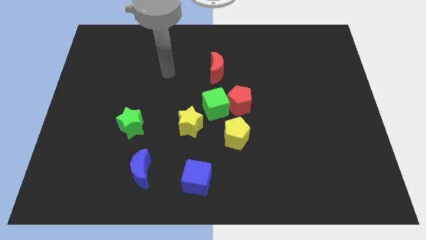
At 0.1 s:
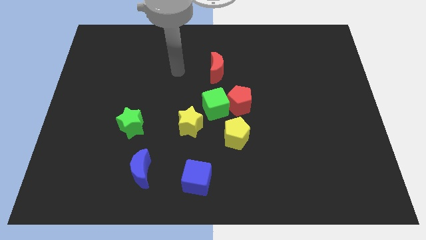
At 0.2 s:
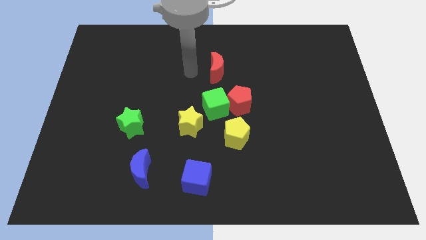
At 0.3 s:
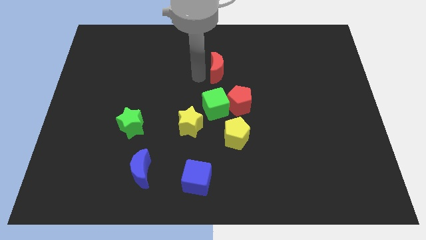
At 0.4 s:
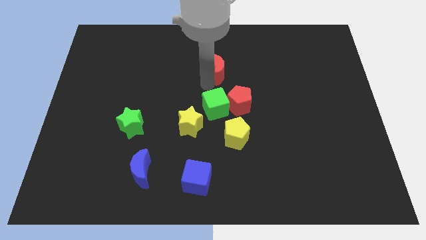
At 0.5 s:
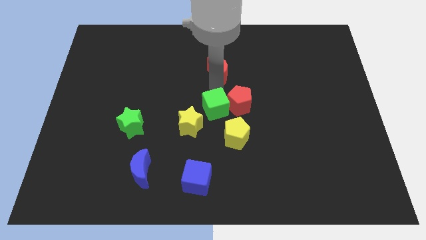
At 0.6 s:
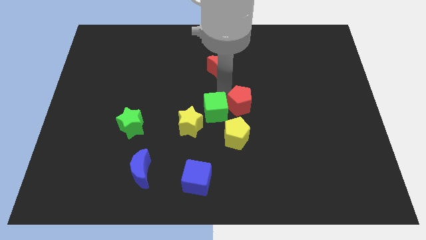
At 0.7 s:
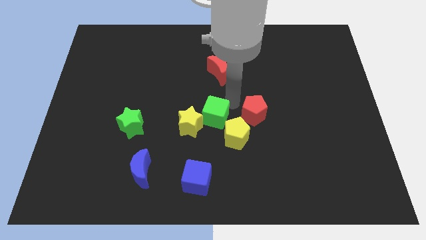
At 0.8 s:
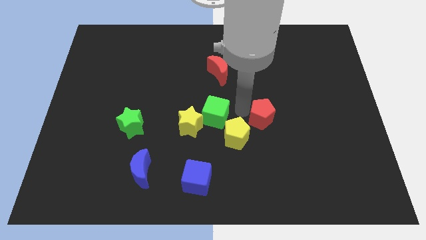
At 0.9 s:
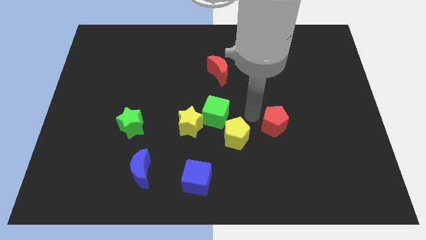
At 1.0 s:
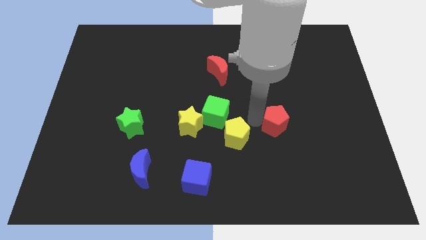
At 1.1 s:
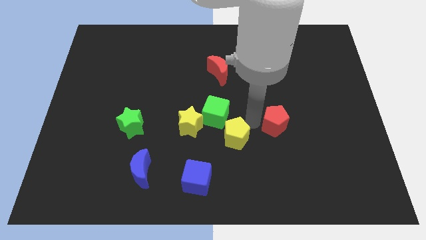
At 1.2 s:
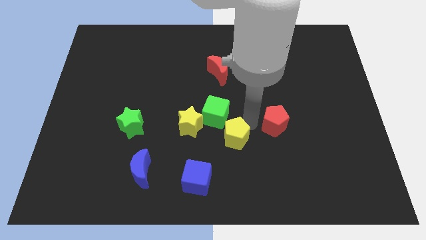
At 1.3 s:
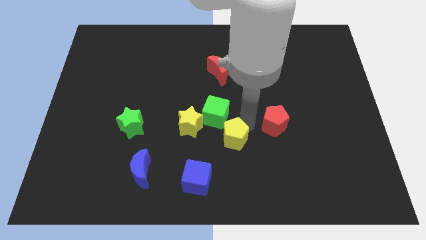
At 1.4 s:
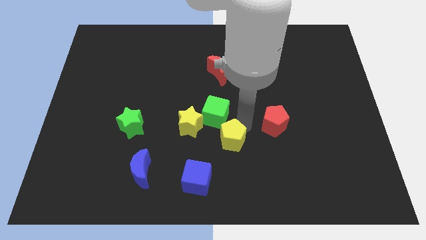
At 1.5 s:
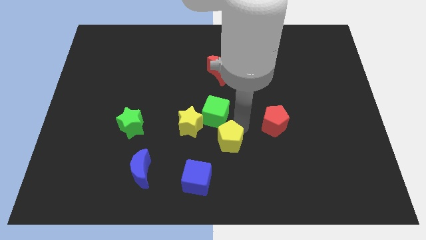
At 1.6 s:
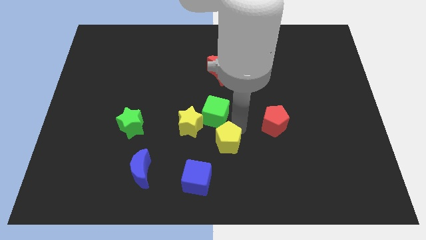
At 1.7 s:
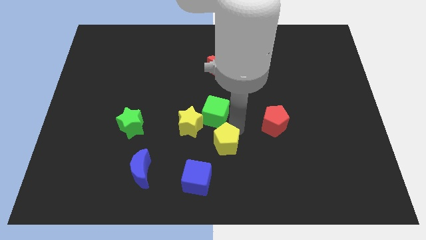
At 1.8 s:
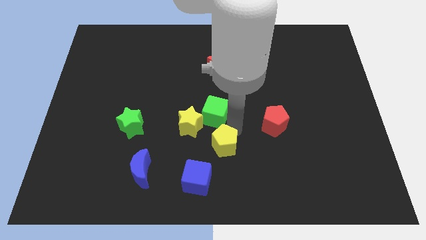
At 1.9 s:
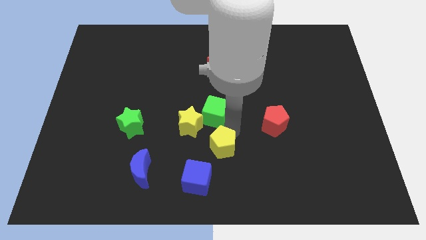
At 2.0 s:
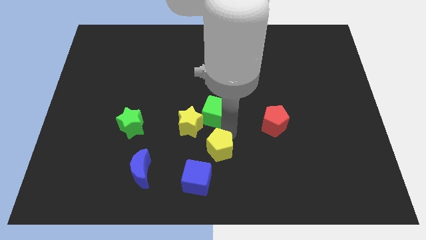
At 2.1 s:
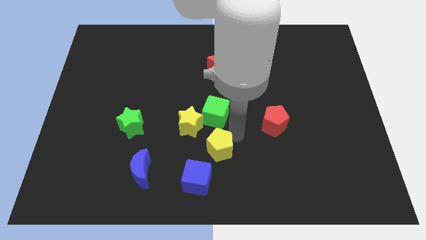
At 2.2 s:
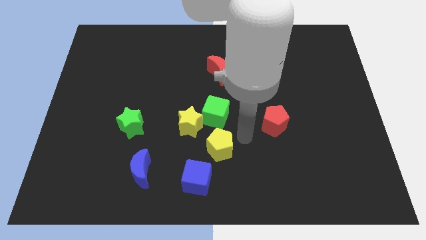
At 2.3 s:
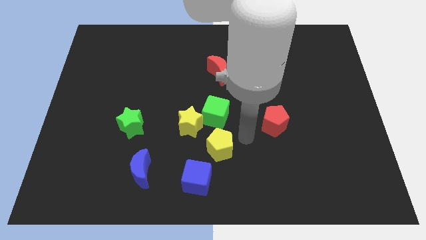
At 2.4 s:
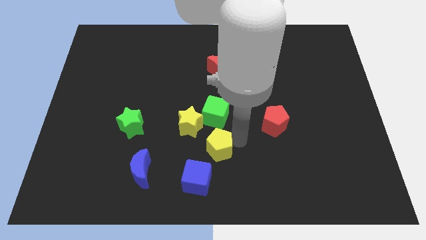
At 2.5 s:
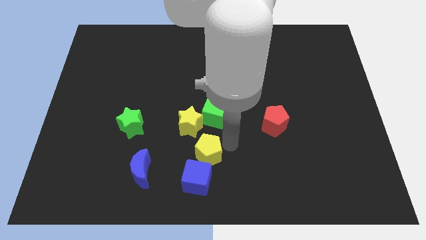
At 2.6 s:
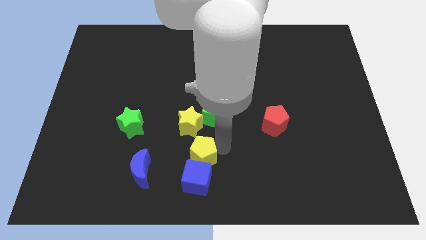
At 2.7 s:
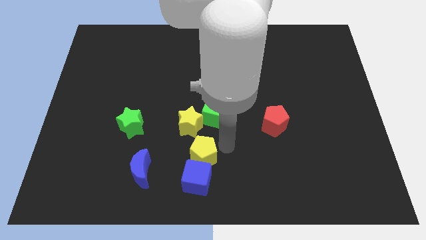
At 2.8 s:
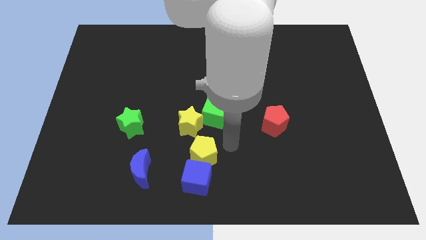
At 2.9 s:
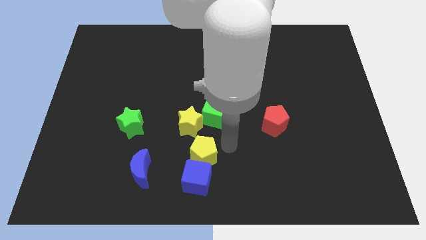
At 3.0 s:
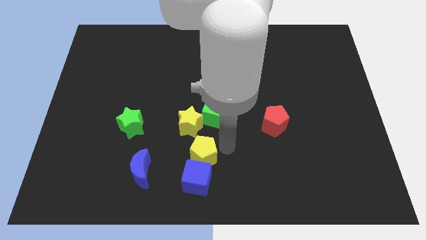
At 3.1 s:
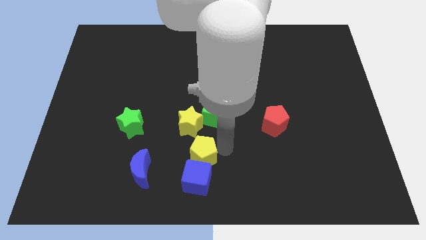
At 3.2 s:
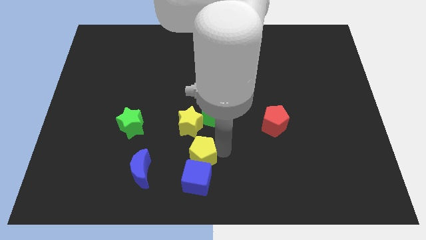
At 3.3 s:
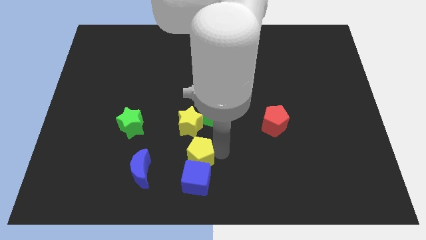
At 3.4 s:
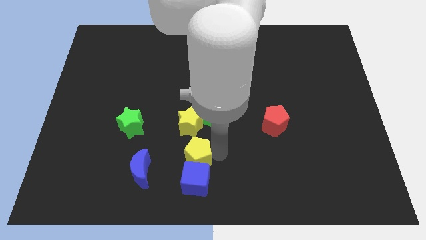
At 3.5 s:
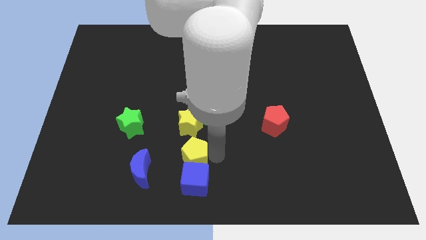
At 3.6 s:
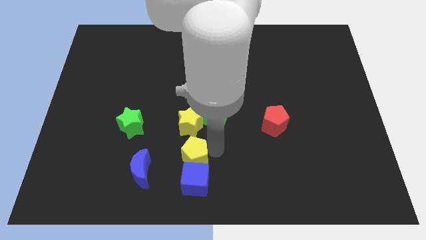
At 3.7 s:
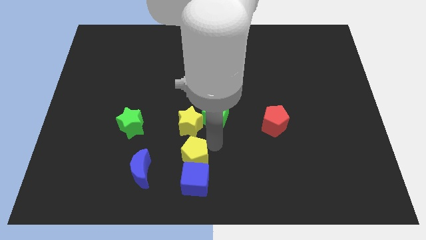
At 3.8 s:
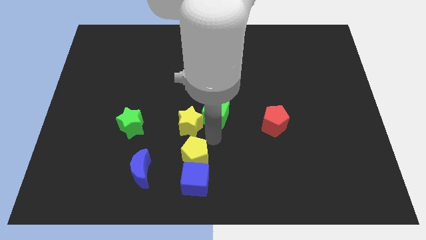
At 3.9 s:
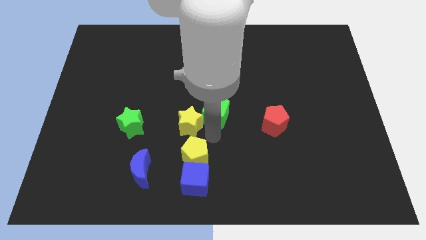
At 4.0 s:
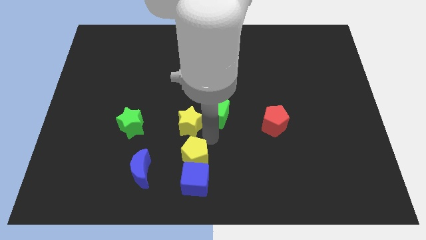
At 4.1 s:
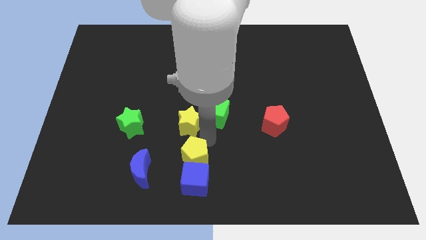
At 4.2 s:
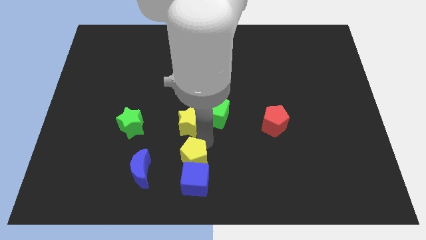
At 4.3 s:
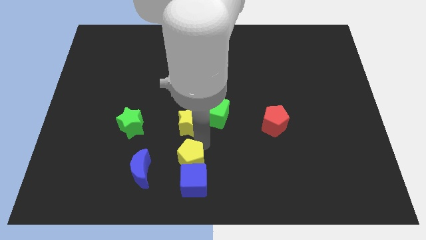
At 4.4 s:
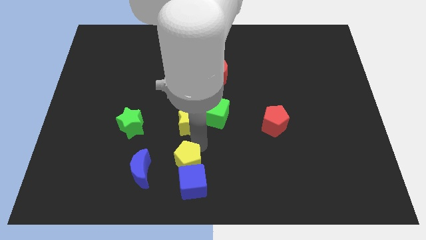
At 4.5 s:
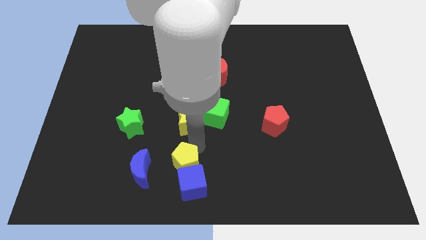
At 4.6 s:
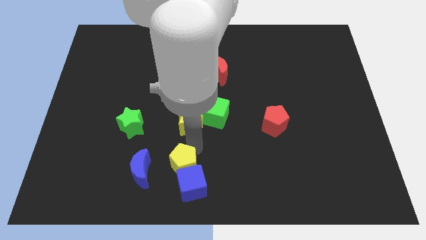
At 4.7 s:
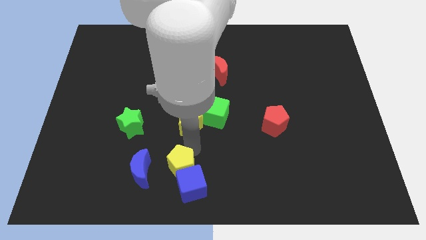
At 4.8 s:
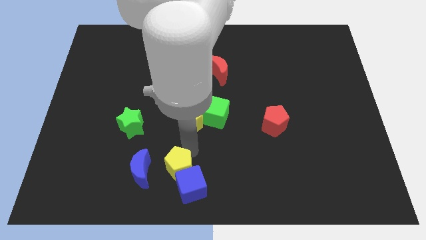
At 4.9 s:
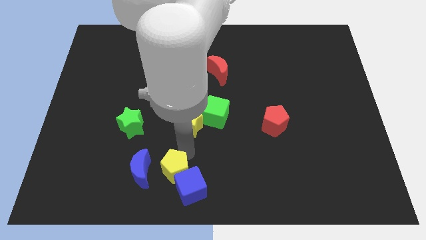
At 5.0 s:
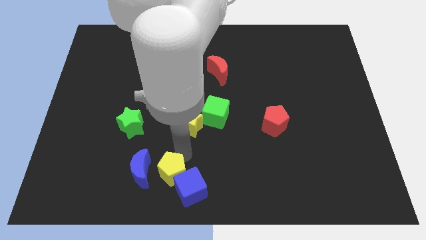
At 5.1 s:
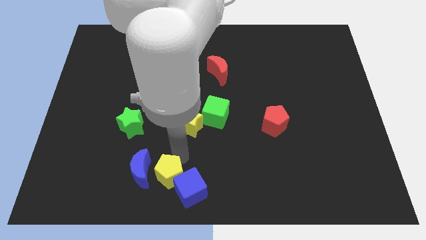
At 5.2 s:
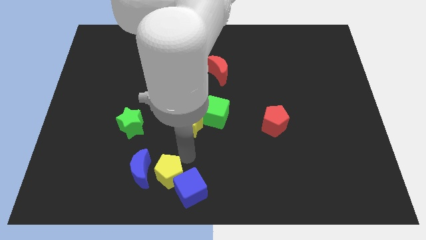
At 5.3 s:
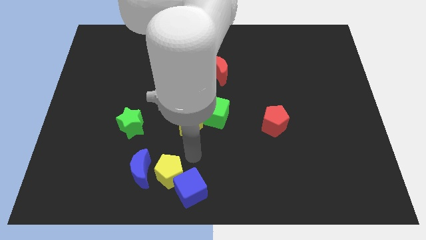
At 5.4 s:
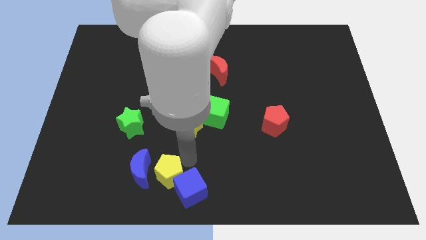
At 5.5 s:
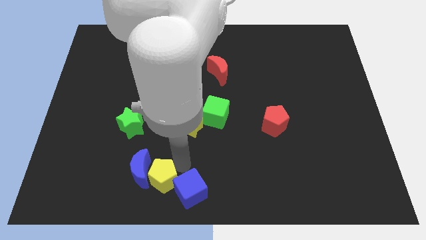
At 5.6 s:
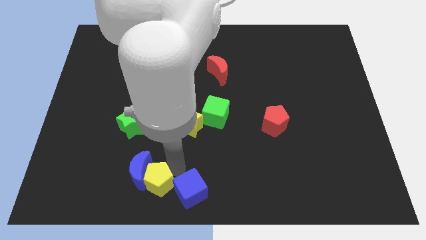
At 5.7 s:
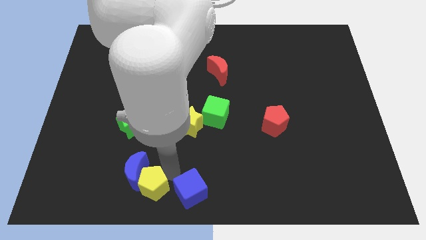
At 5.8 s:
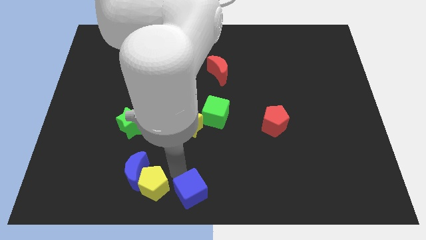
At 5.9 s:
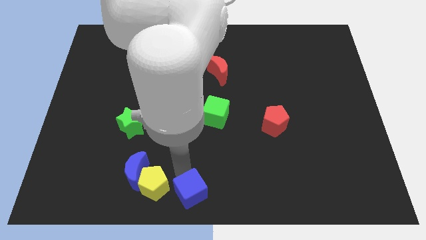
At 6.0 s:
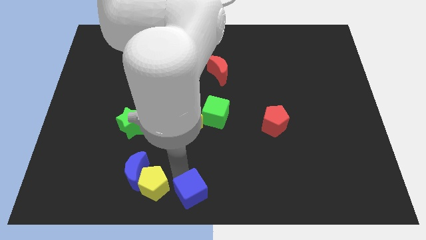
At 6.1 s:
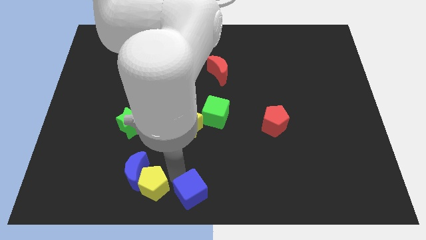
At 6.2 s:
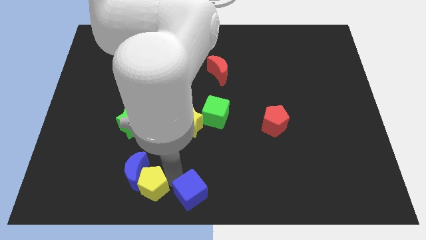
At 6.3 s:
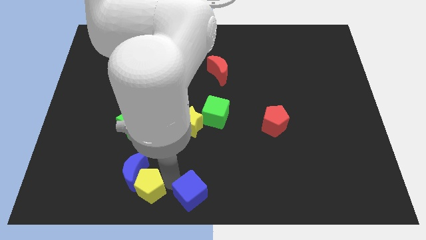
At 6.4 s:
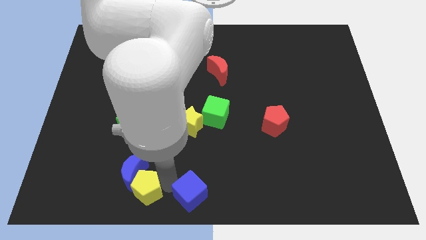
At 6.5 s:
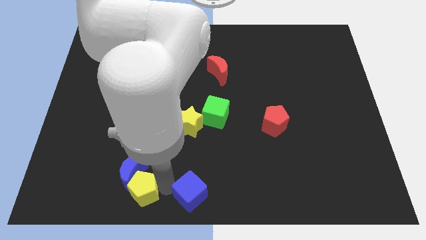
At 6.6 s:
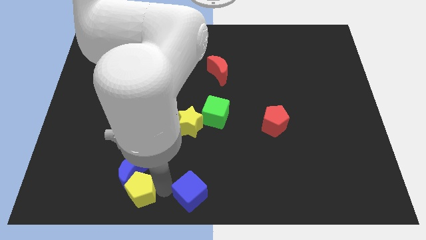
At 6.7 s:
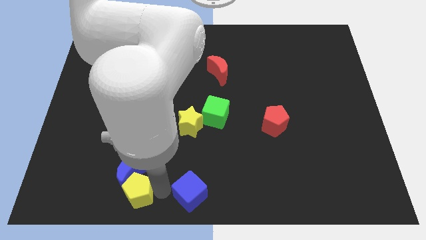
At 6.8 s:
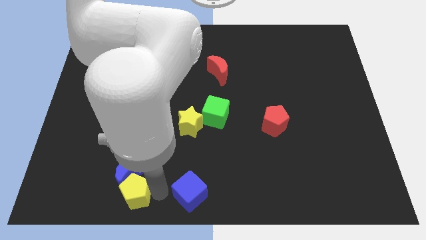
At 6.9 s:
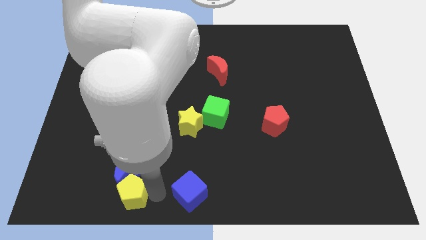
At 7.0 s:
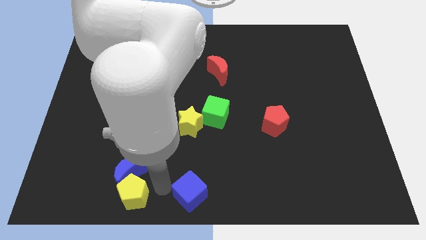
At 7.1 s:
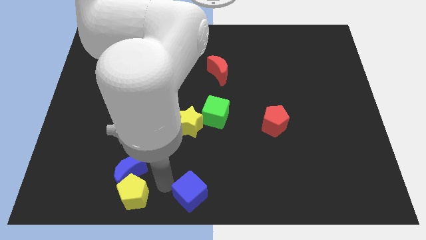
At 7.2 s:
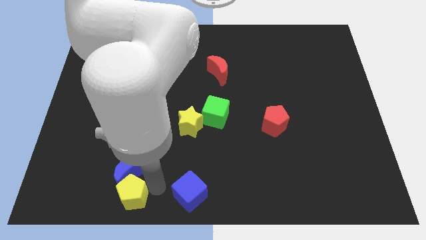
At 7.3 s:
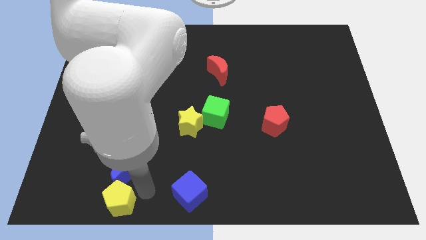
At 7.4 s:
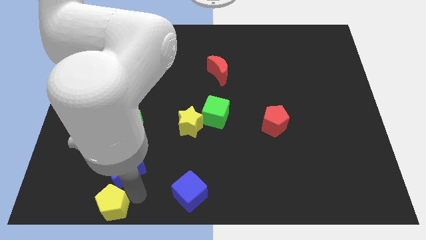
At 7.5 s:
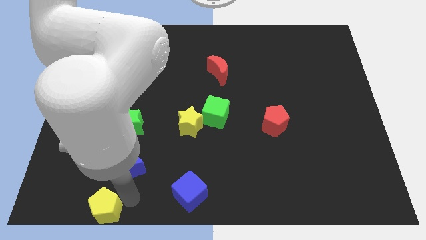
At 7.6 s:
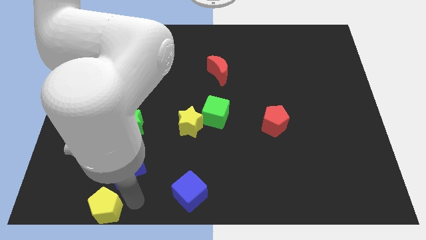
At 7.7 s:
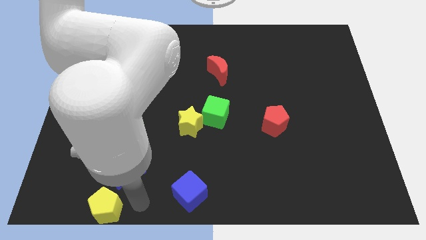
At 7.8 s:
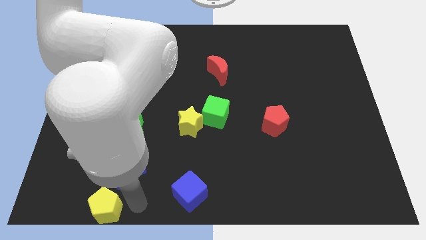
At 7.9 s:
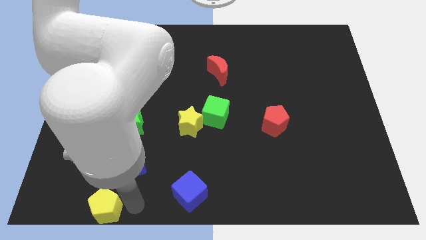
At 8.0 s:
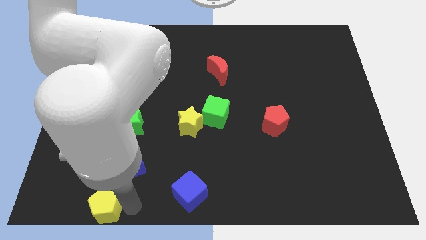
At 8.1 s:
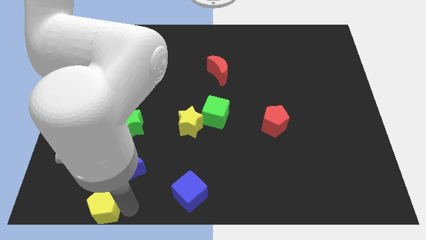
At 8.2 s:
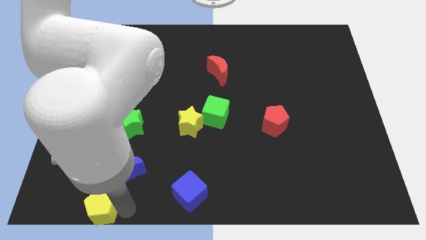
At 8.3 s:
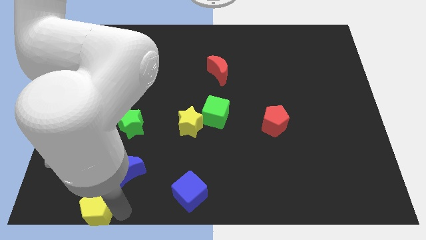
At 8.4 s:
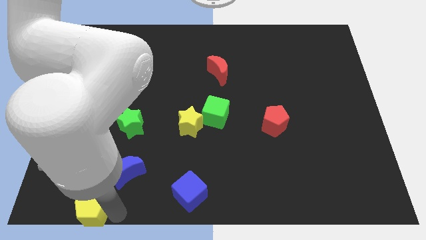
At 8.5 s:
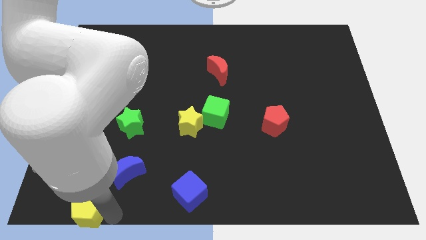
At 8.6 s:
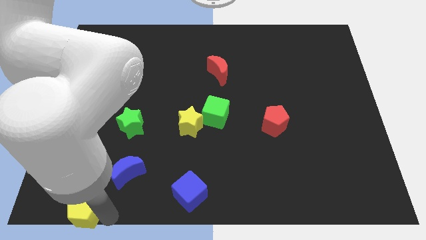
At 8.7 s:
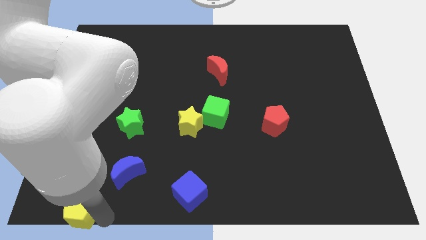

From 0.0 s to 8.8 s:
slide the yellow pentagon to the lower left corner
